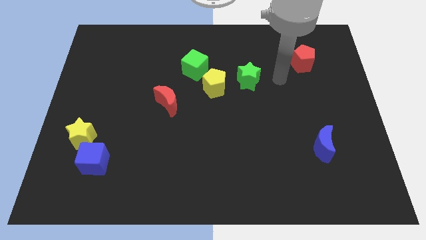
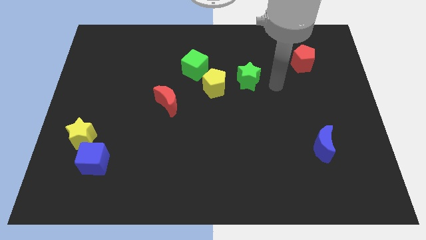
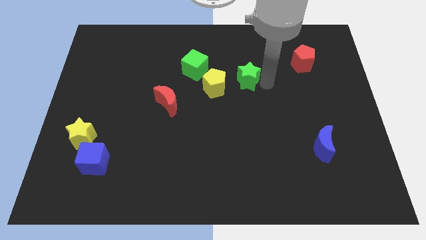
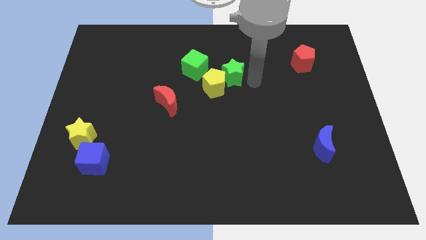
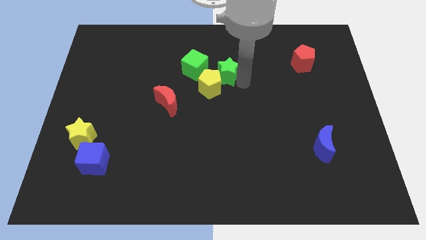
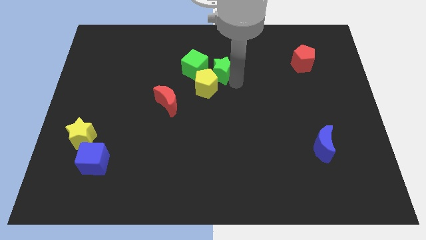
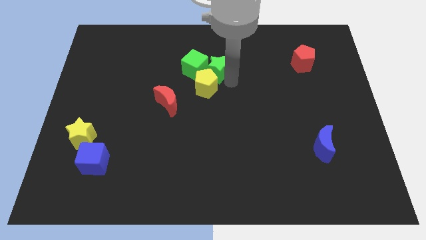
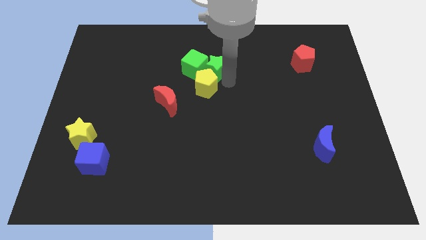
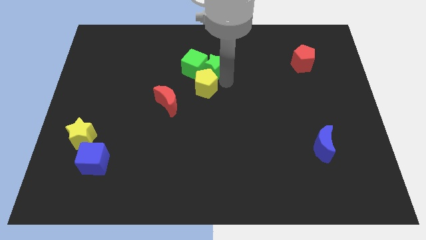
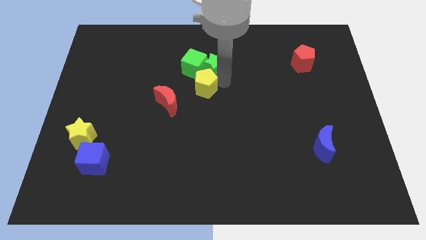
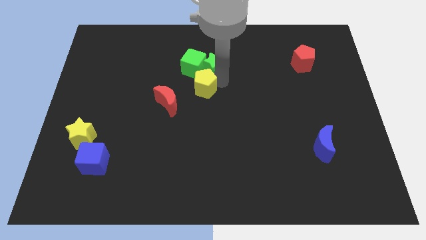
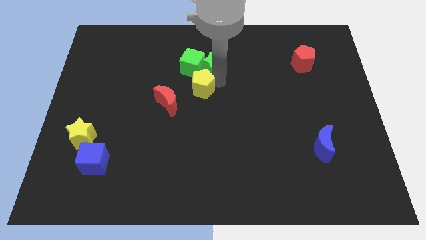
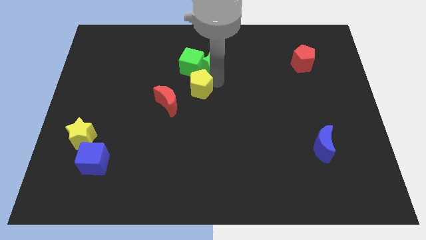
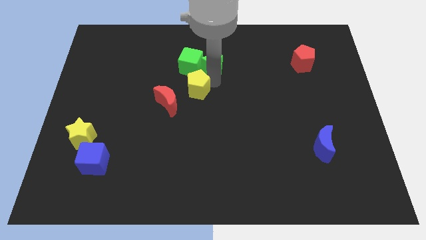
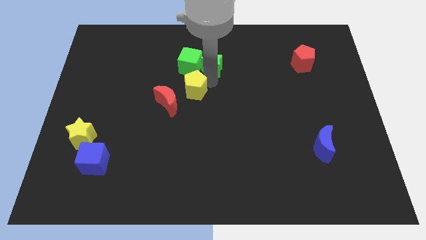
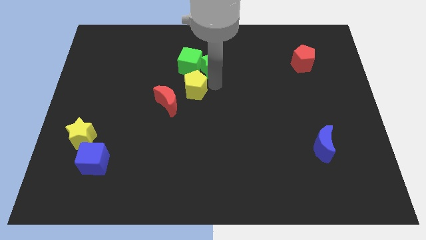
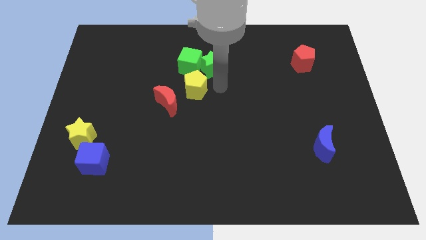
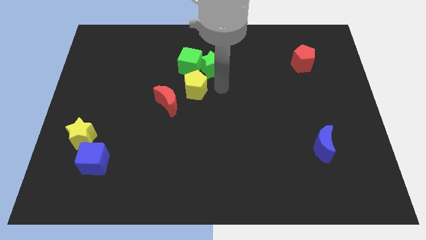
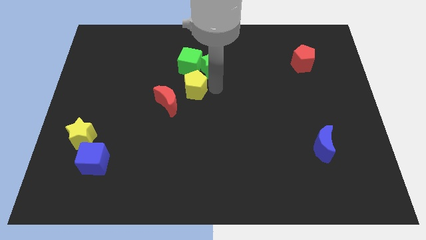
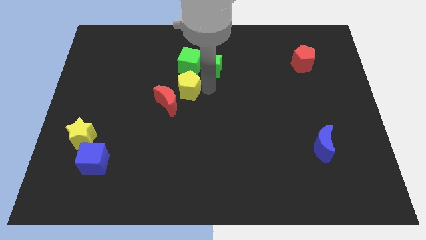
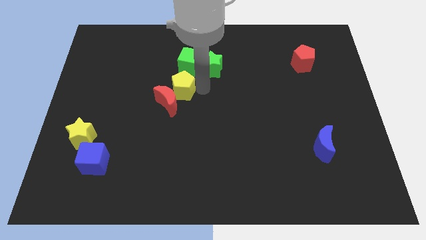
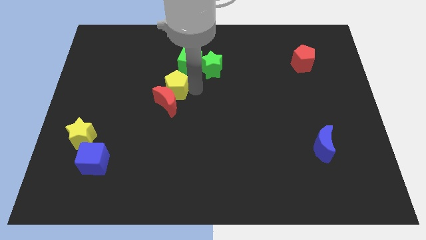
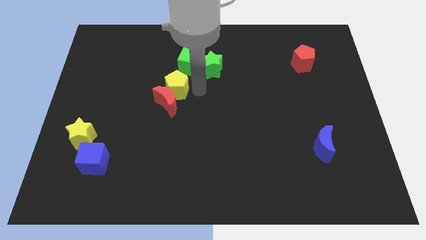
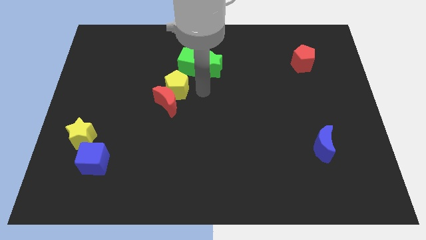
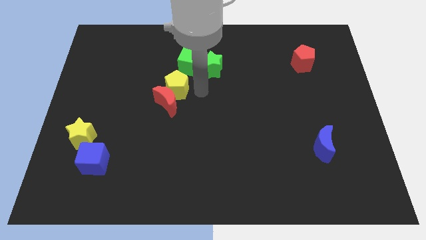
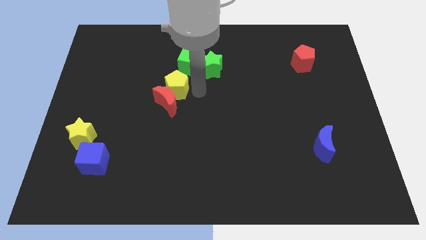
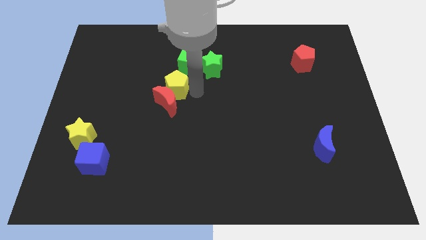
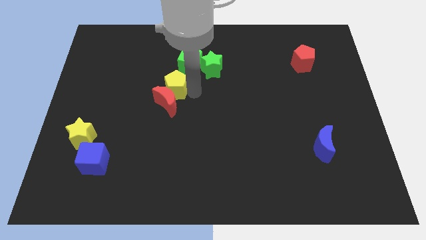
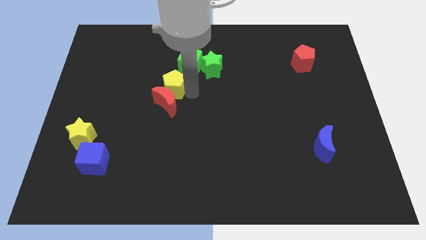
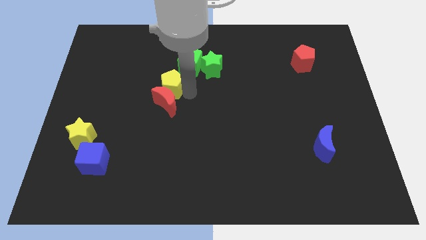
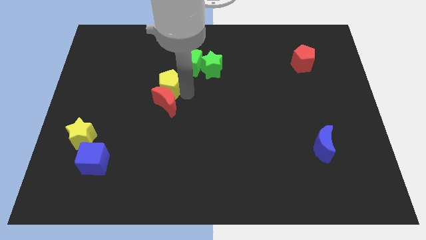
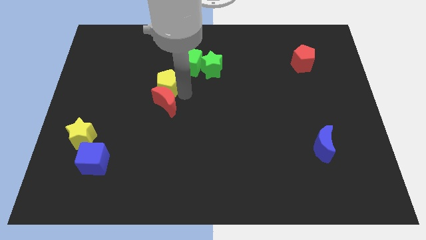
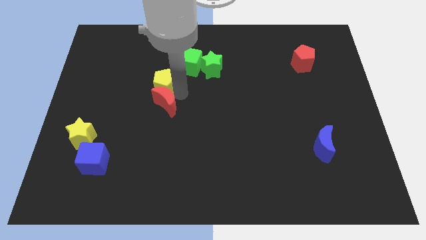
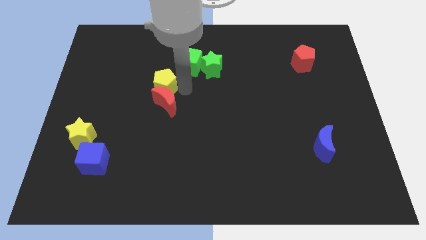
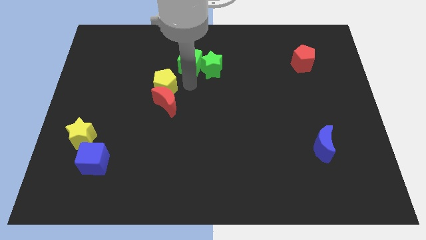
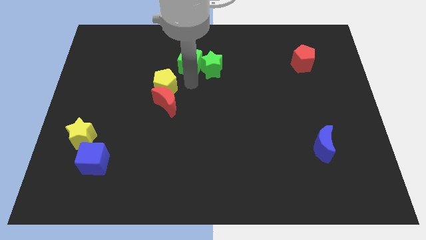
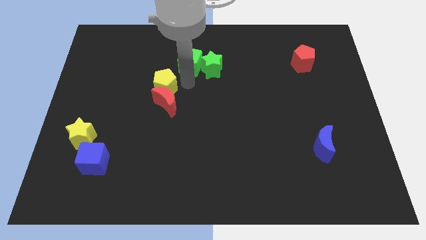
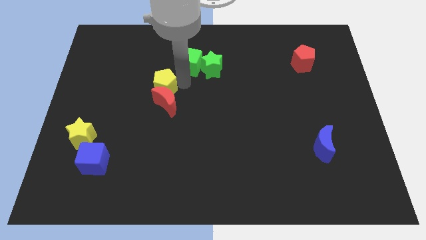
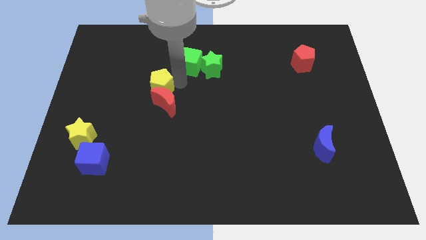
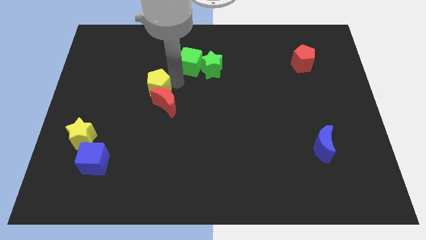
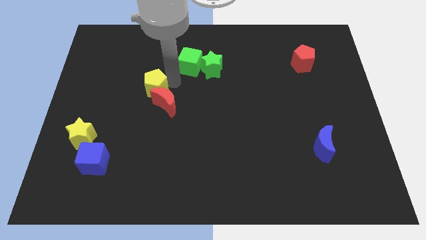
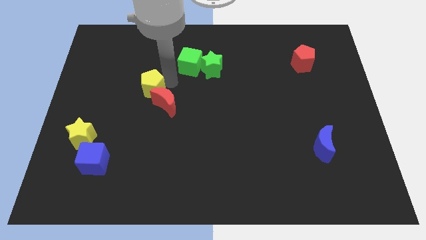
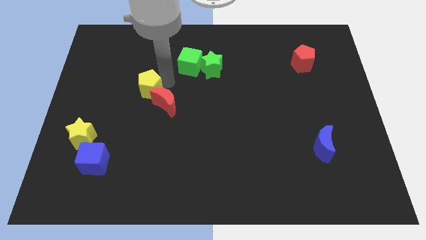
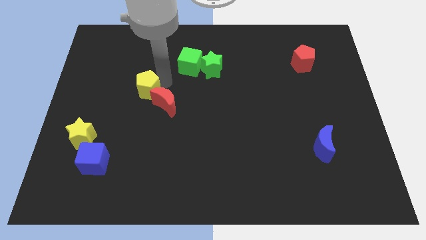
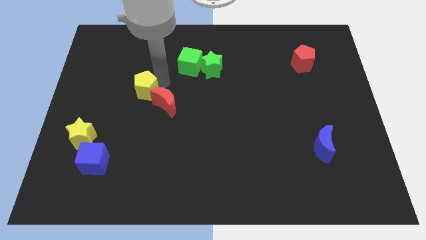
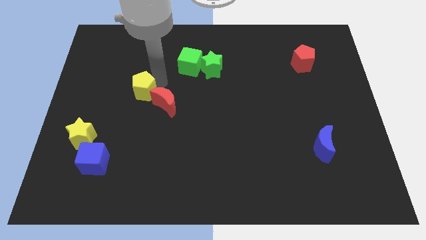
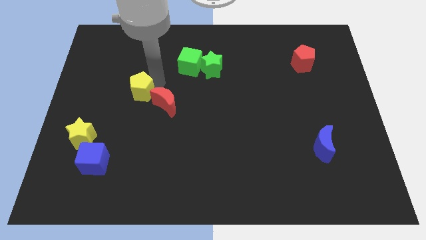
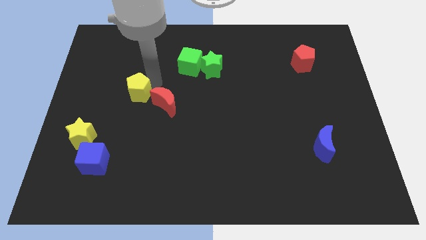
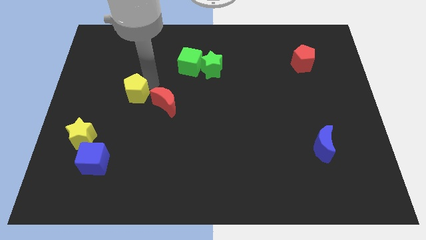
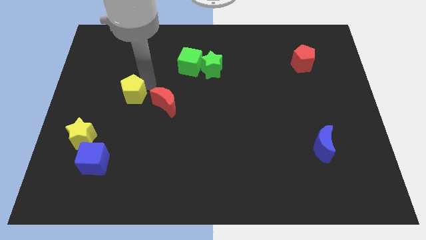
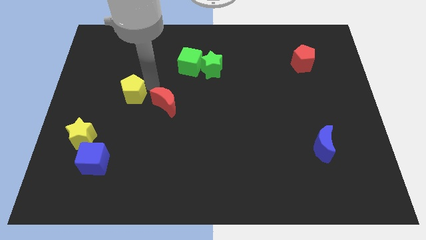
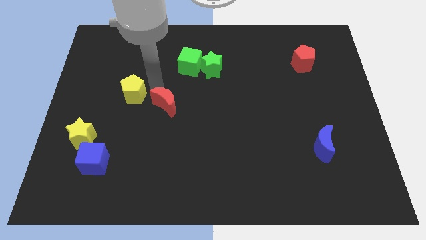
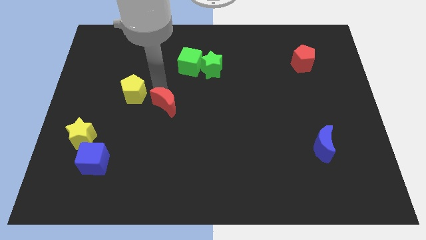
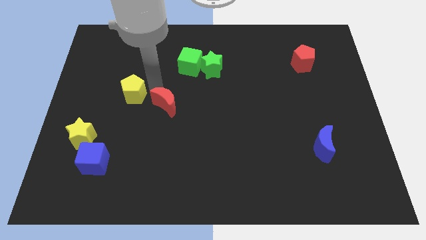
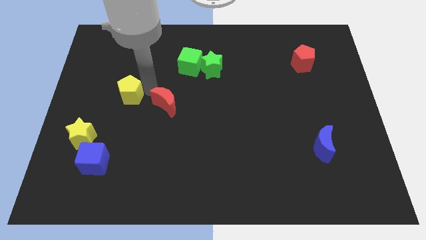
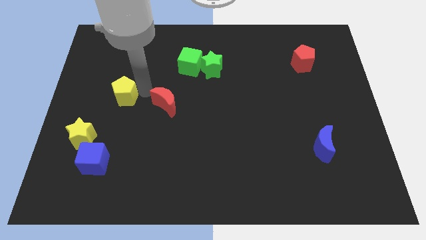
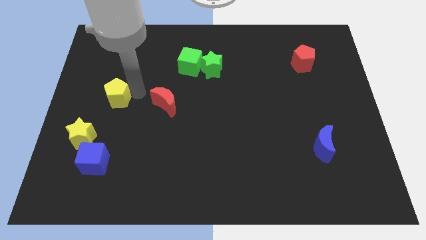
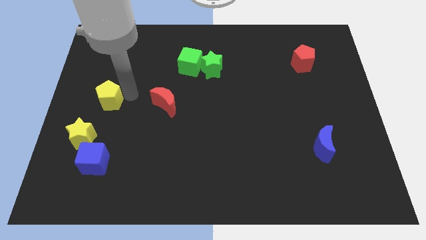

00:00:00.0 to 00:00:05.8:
move the yellow pentagon to the top of the yellow star

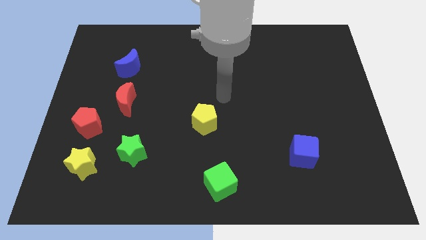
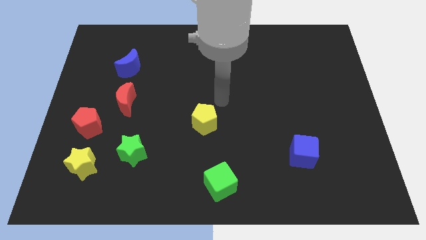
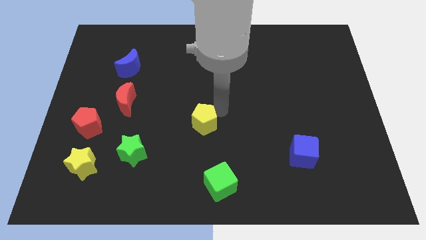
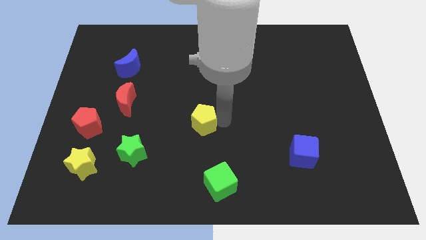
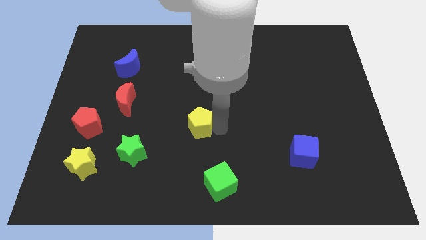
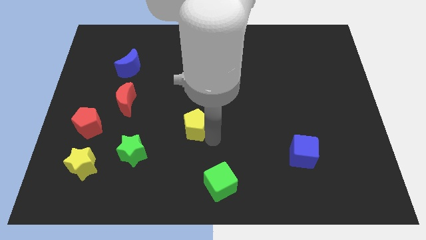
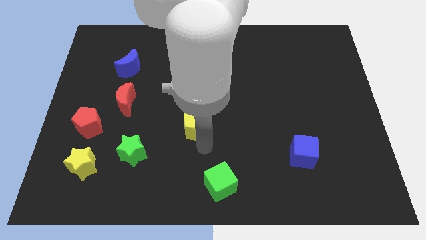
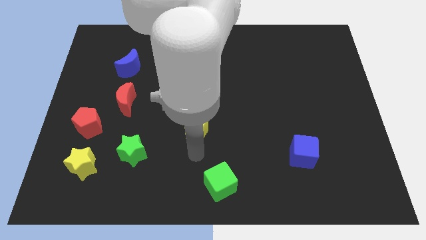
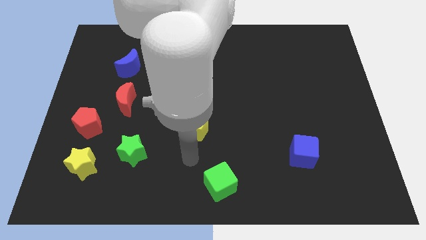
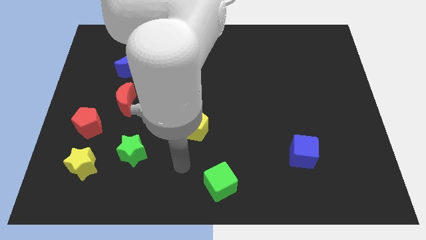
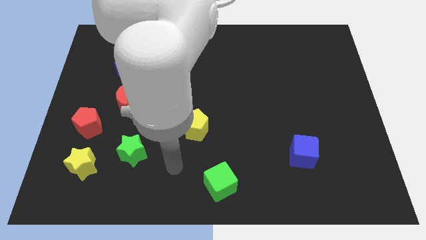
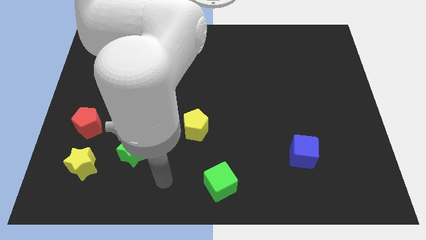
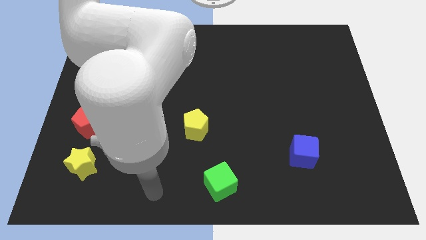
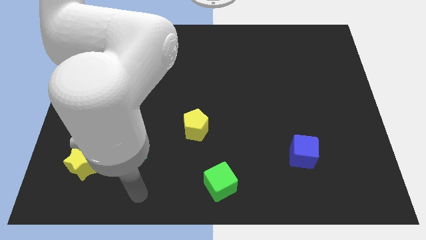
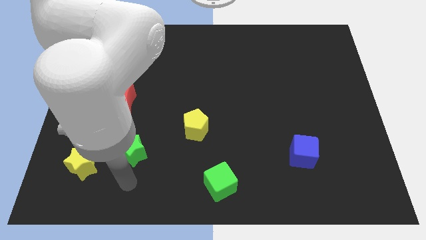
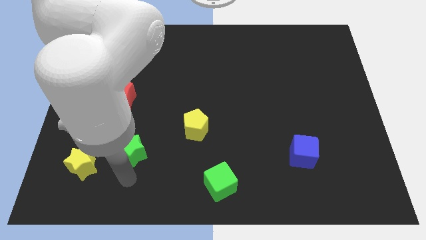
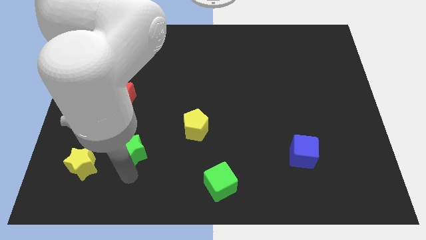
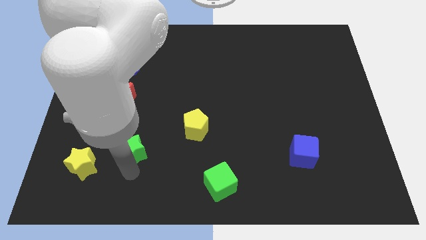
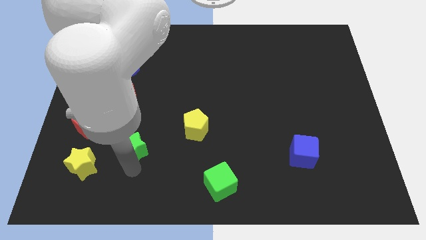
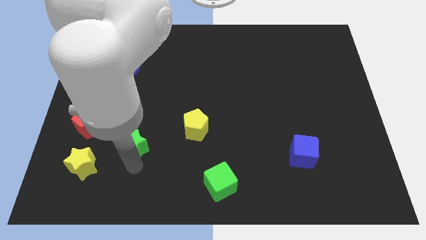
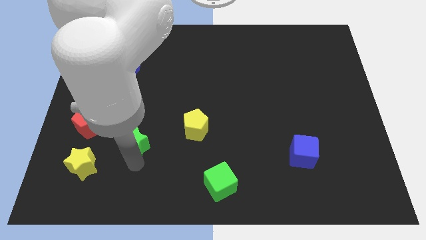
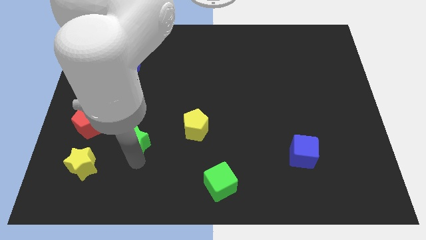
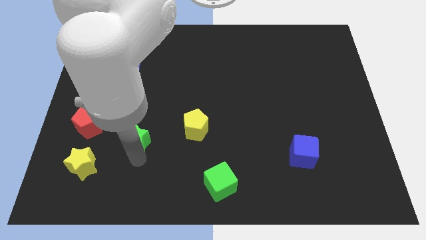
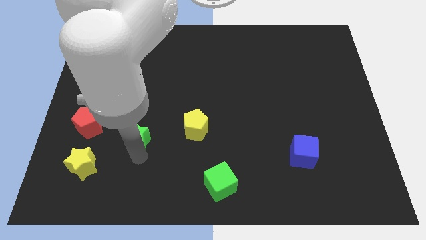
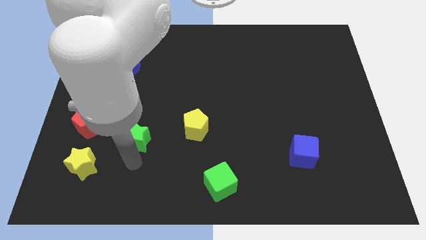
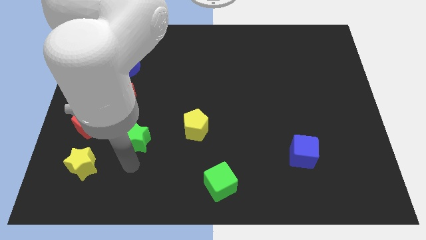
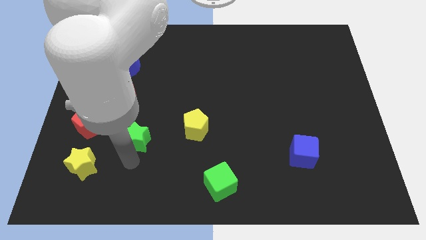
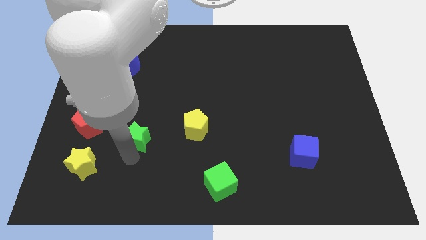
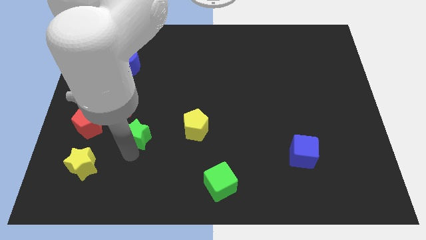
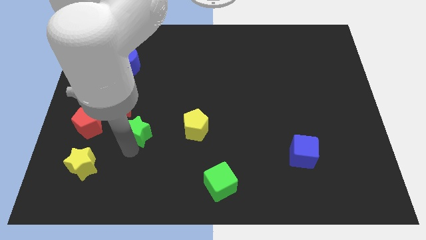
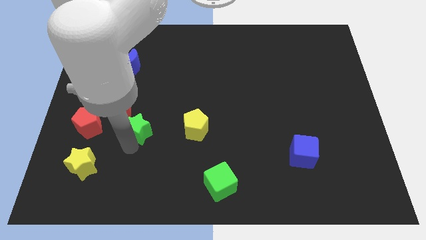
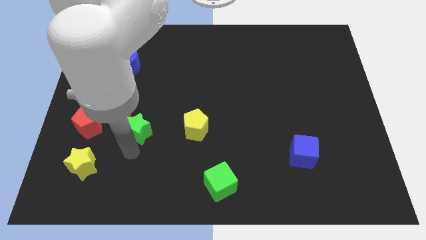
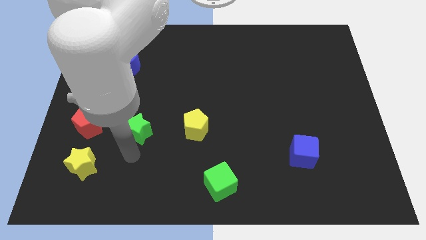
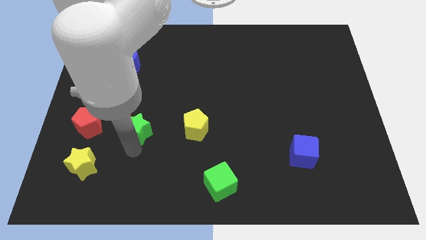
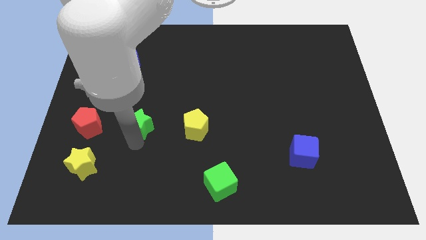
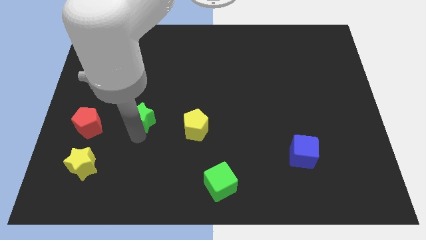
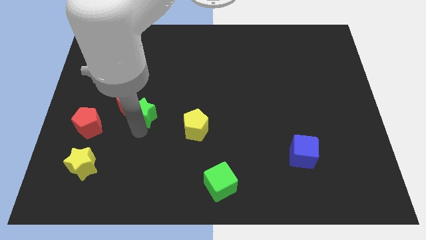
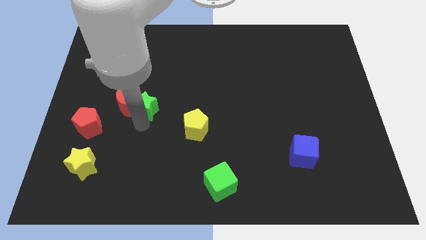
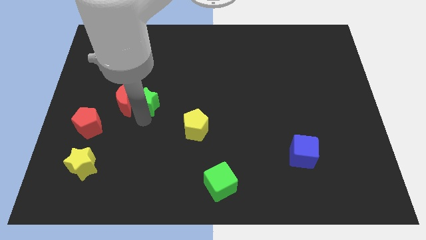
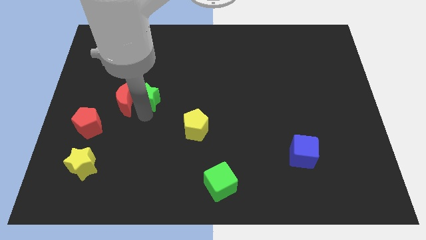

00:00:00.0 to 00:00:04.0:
put the green star to the bottom right of the blue moon
